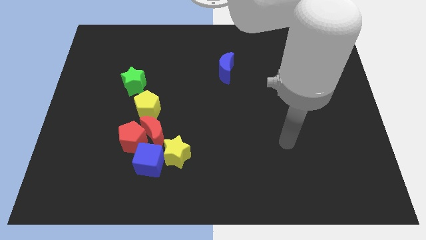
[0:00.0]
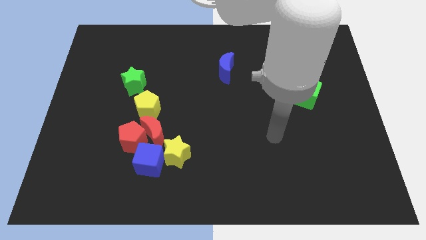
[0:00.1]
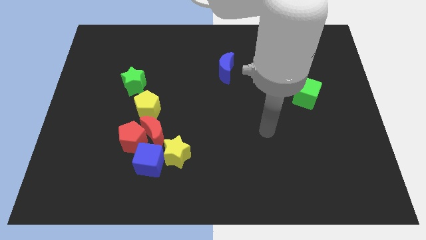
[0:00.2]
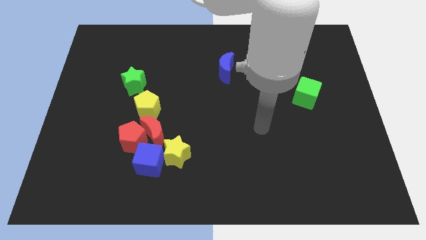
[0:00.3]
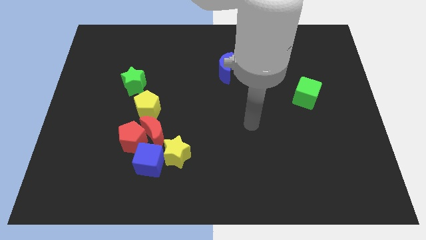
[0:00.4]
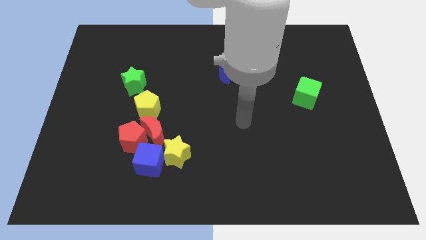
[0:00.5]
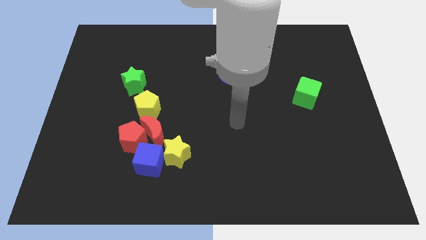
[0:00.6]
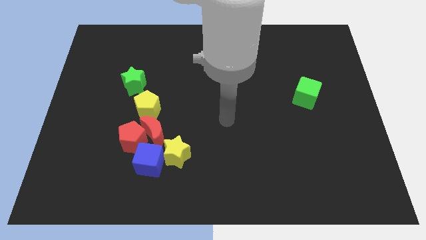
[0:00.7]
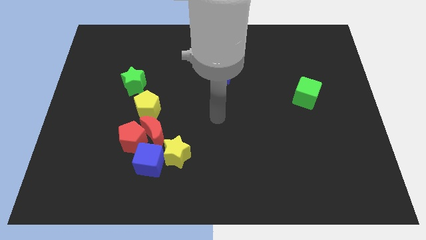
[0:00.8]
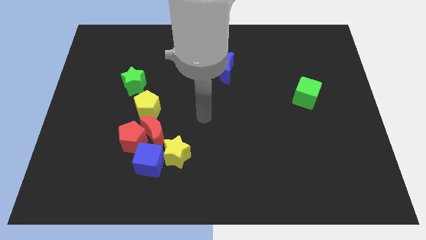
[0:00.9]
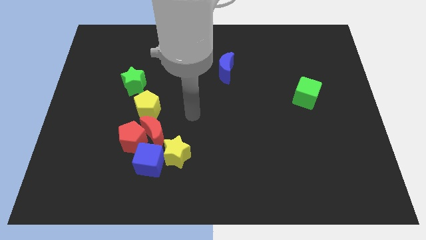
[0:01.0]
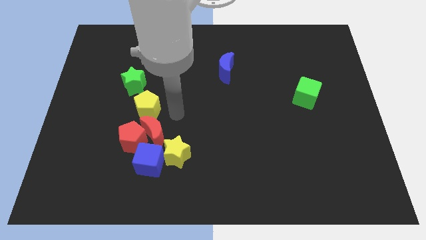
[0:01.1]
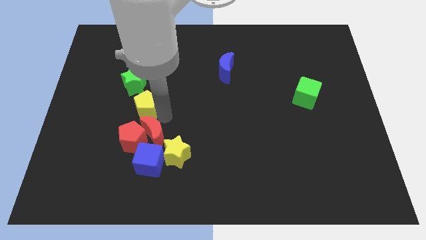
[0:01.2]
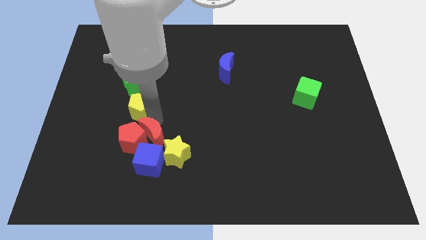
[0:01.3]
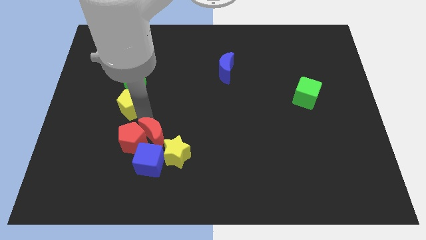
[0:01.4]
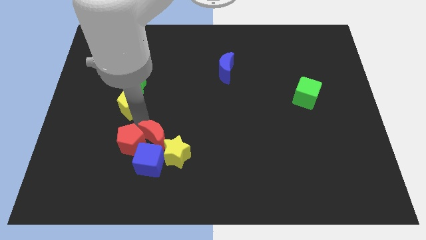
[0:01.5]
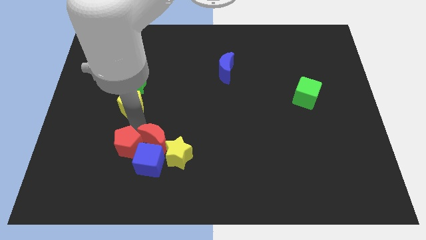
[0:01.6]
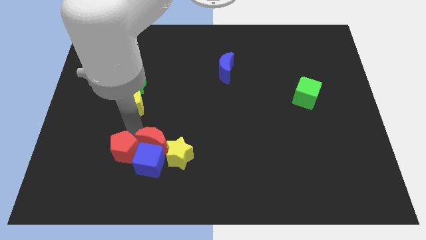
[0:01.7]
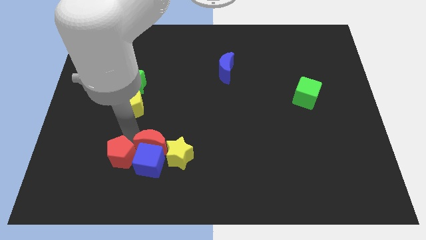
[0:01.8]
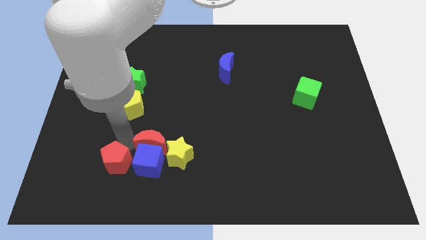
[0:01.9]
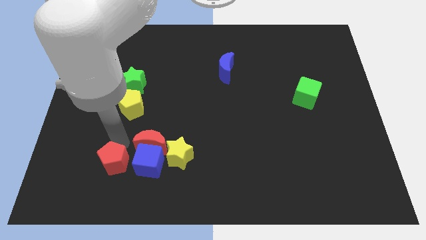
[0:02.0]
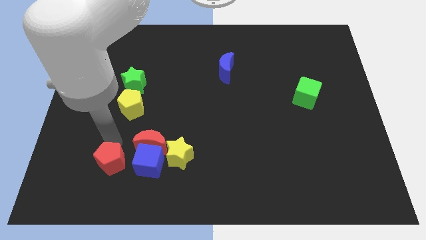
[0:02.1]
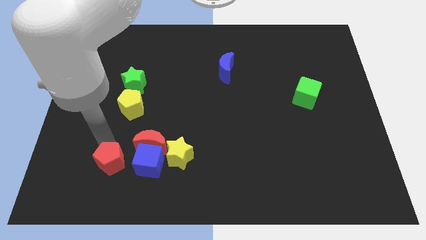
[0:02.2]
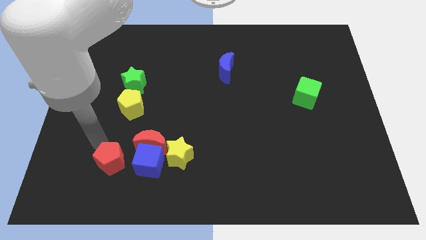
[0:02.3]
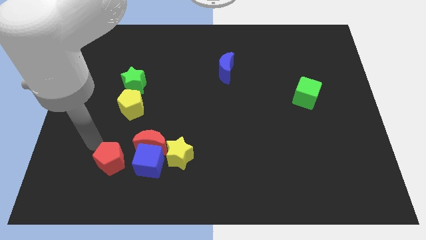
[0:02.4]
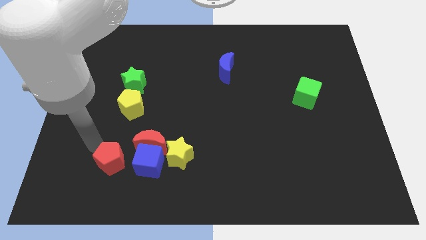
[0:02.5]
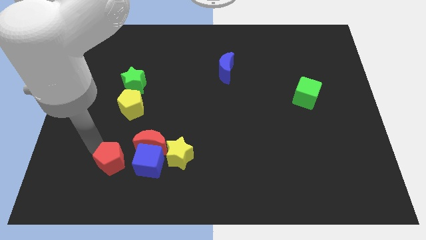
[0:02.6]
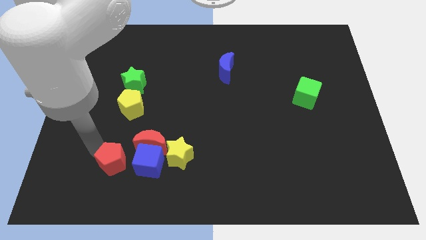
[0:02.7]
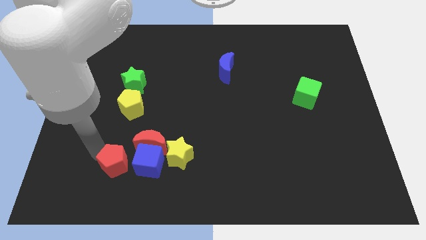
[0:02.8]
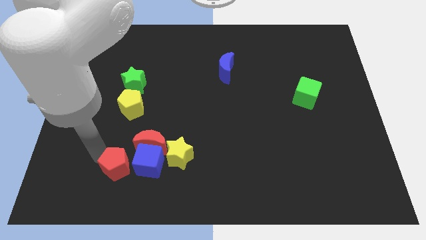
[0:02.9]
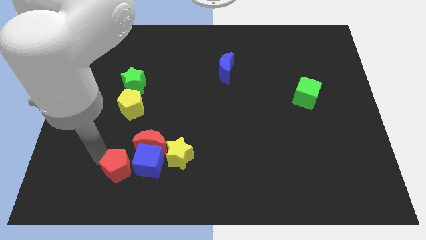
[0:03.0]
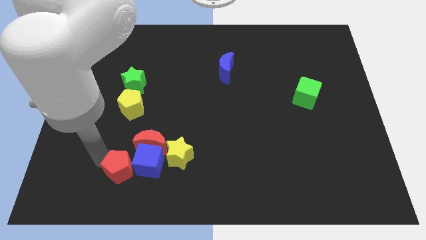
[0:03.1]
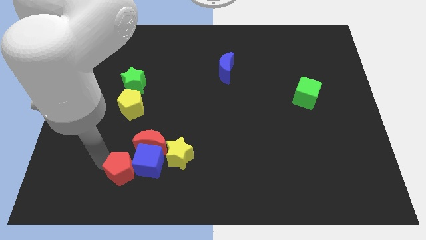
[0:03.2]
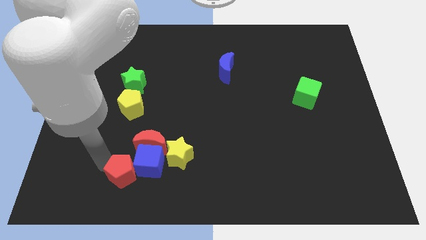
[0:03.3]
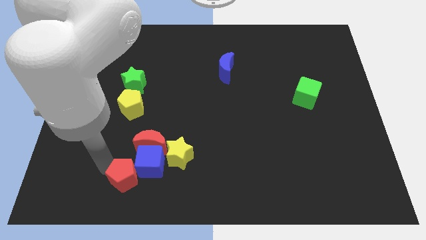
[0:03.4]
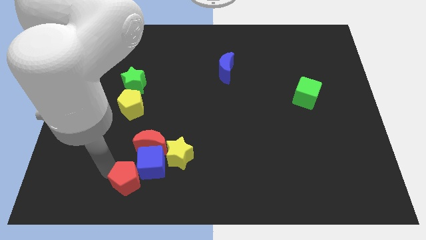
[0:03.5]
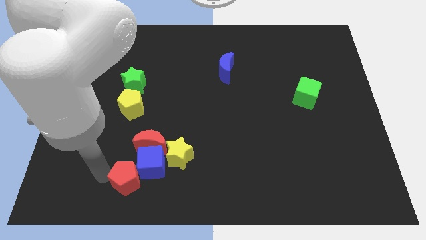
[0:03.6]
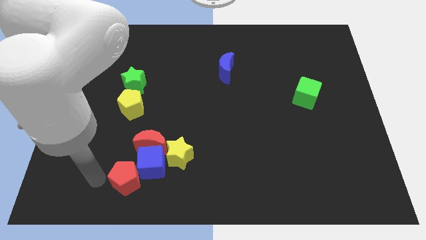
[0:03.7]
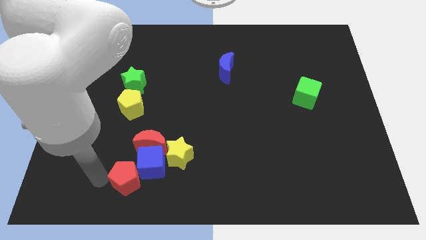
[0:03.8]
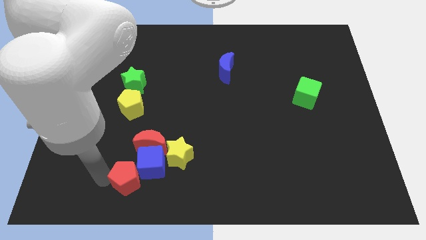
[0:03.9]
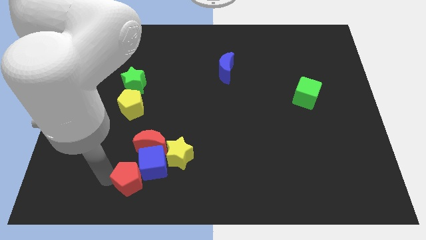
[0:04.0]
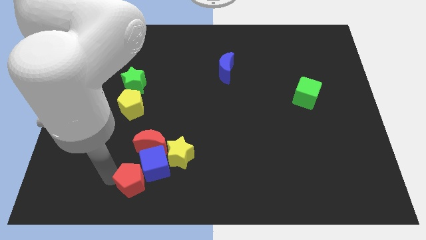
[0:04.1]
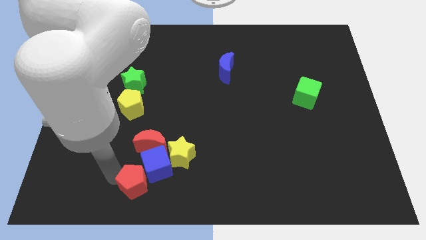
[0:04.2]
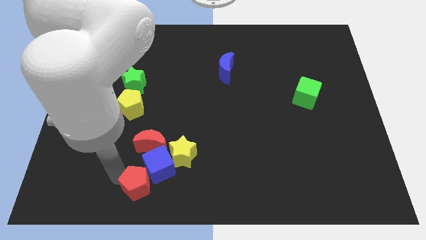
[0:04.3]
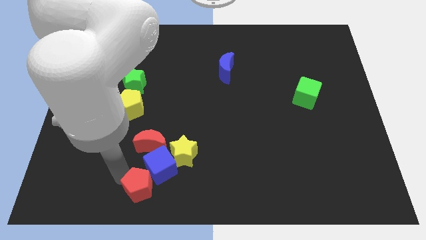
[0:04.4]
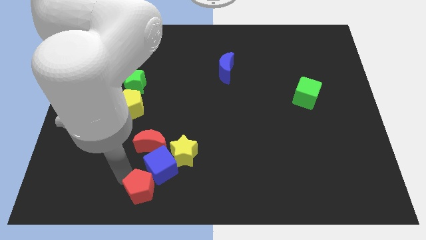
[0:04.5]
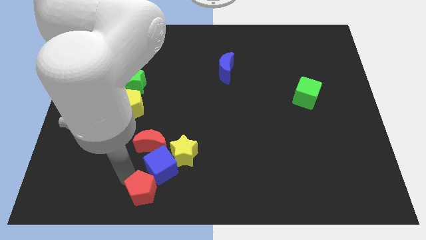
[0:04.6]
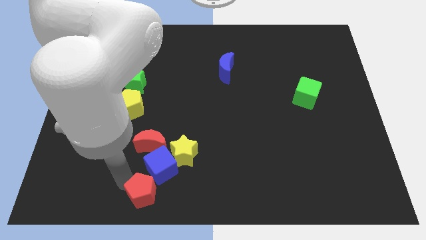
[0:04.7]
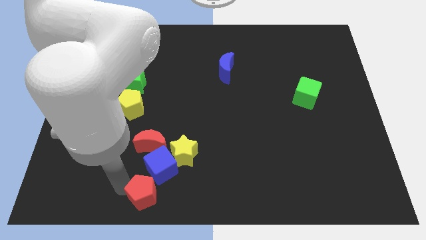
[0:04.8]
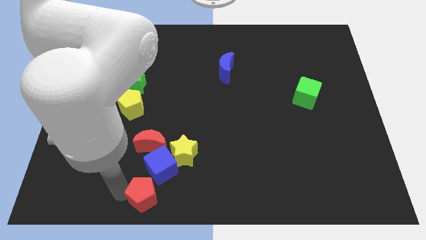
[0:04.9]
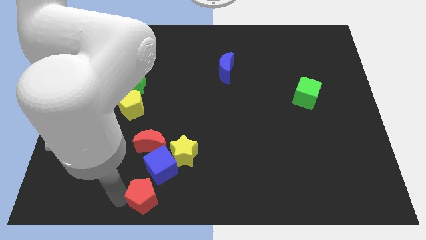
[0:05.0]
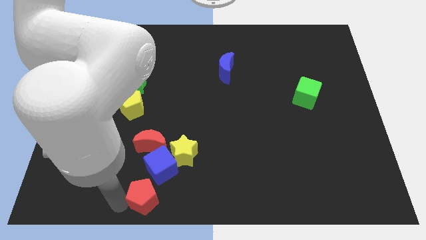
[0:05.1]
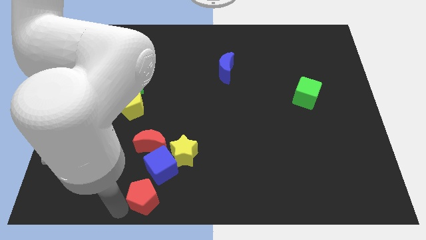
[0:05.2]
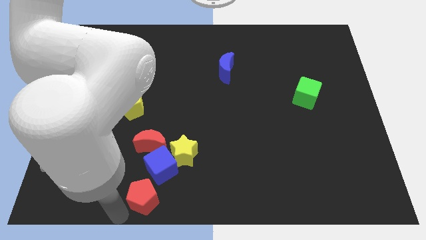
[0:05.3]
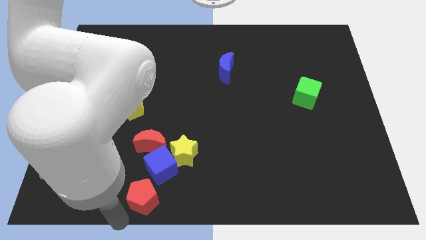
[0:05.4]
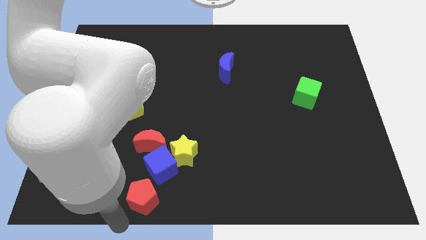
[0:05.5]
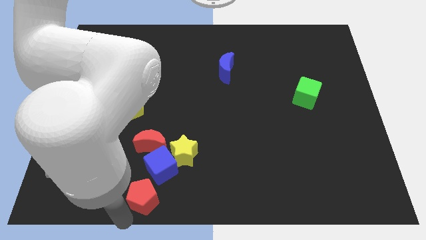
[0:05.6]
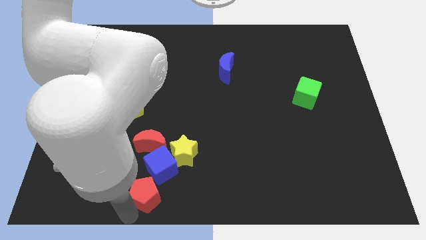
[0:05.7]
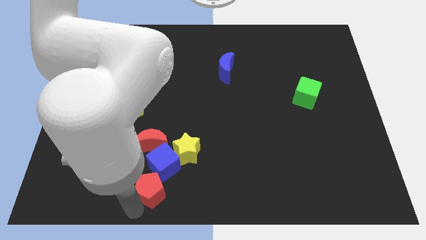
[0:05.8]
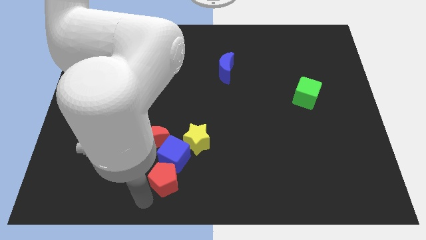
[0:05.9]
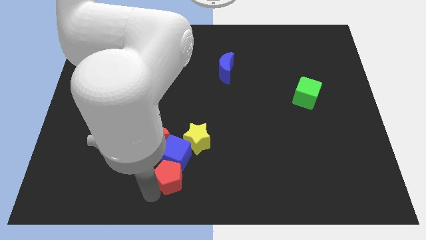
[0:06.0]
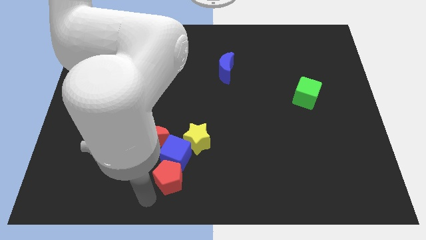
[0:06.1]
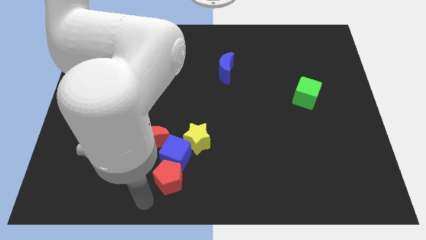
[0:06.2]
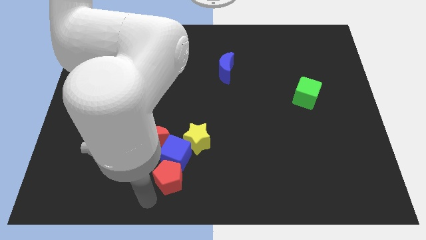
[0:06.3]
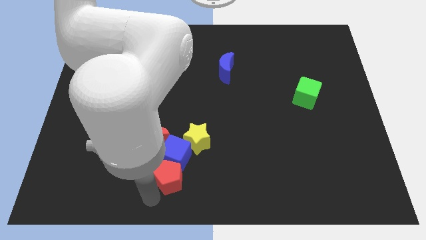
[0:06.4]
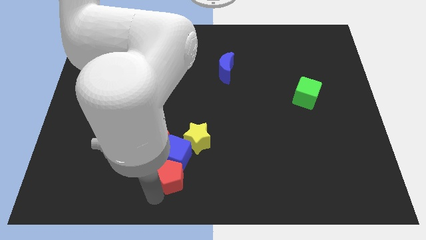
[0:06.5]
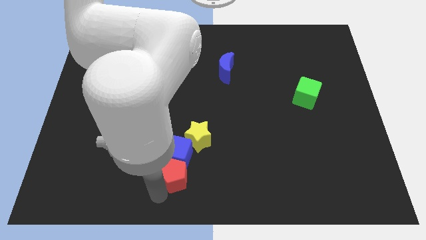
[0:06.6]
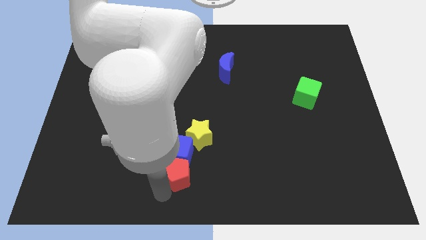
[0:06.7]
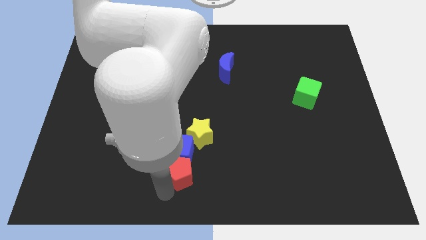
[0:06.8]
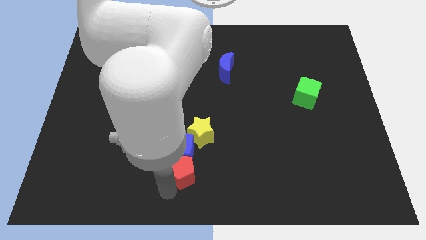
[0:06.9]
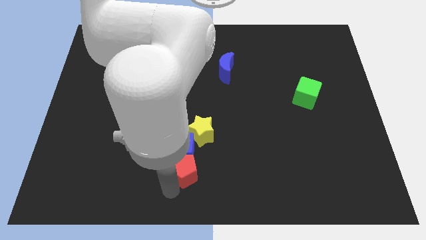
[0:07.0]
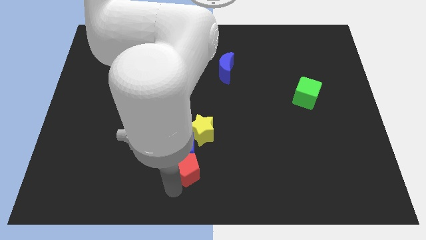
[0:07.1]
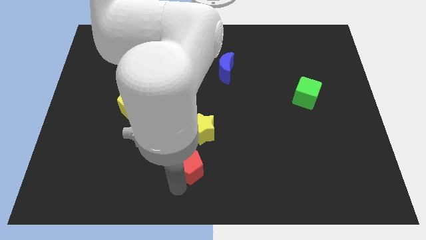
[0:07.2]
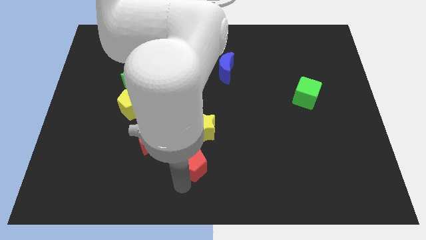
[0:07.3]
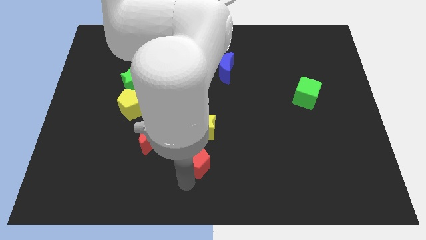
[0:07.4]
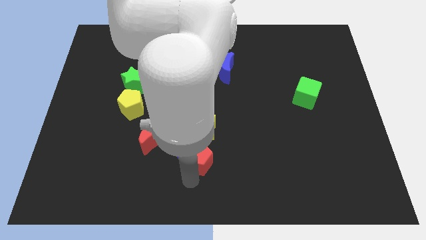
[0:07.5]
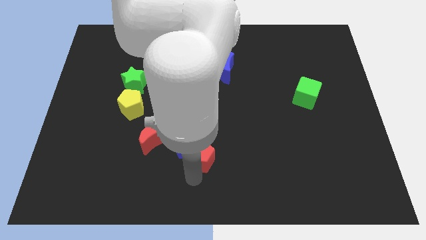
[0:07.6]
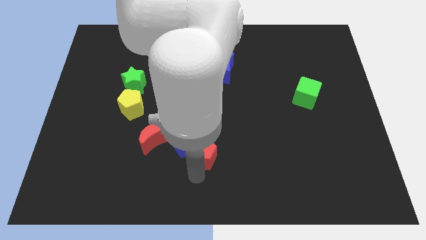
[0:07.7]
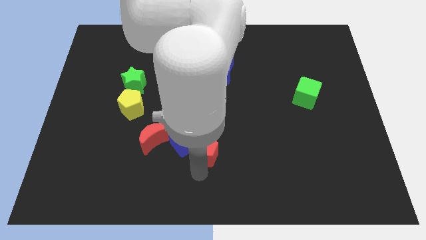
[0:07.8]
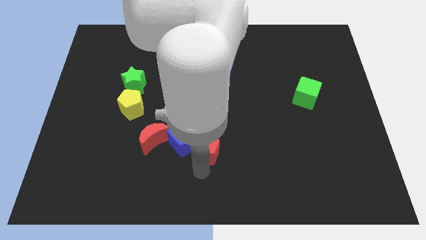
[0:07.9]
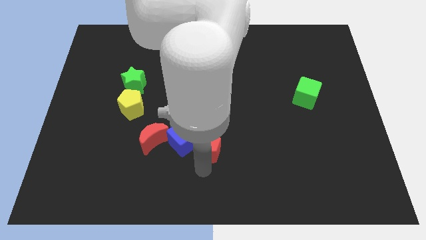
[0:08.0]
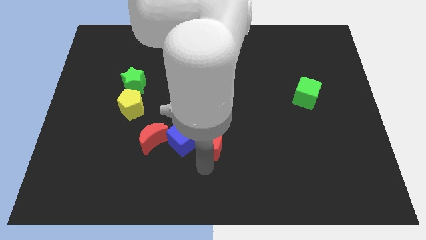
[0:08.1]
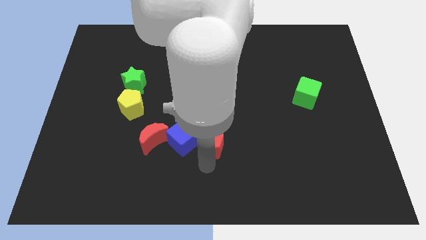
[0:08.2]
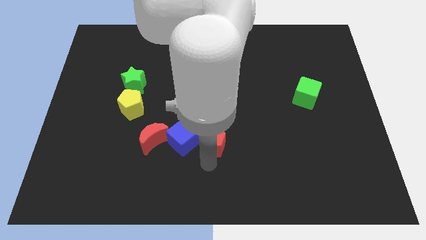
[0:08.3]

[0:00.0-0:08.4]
push the red pentagon to the middle

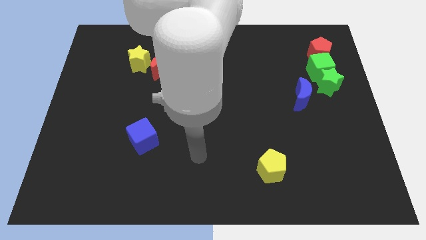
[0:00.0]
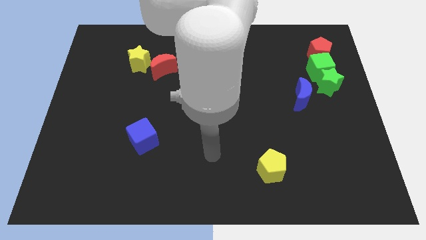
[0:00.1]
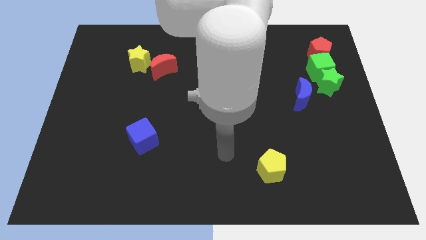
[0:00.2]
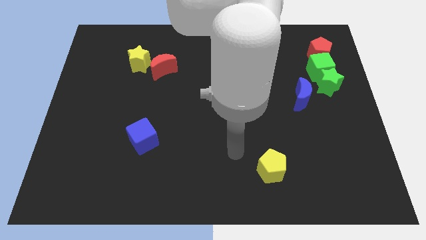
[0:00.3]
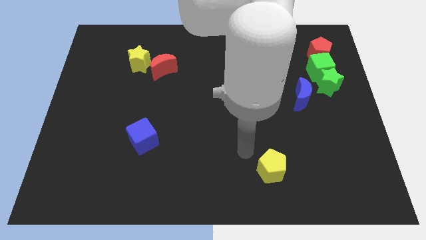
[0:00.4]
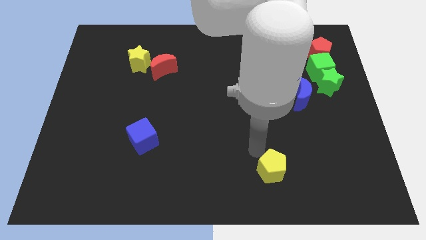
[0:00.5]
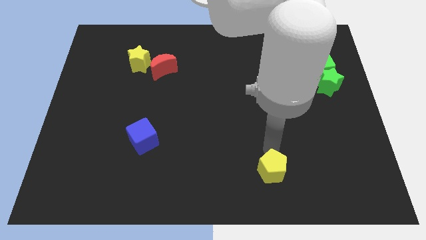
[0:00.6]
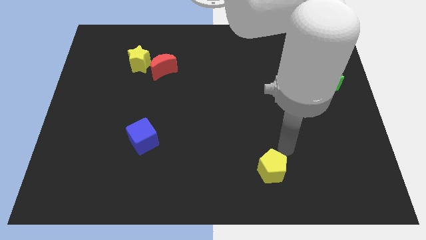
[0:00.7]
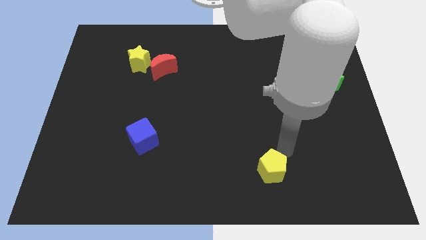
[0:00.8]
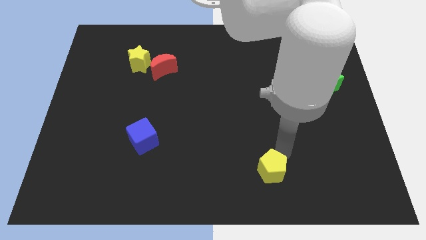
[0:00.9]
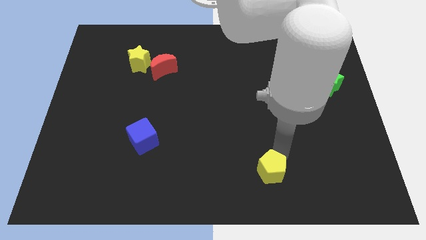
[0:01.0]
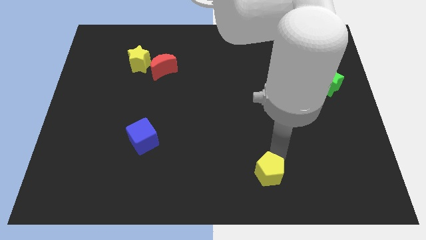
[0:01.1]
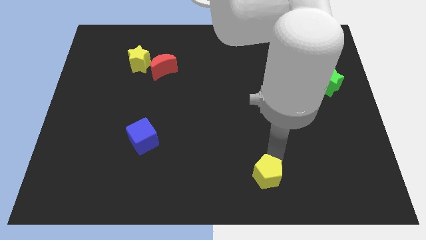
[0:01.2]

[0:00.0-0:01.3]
move the yellow pentagon to the bottom
